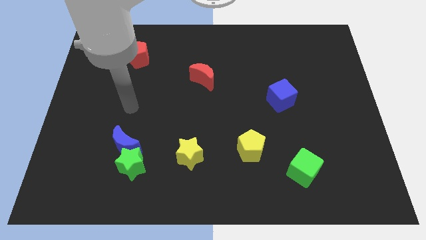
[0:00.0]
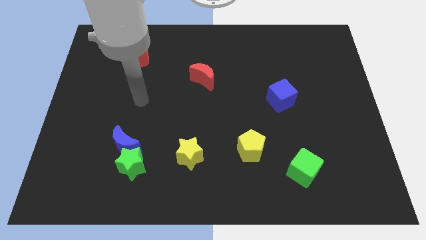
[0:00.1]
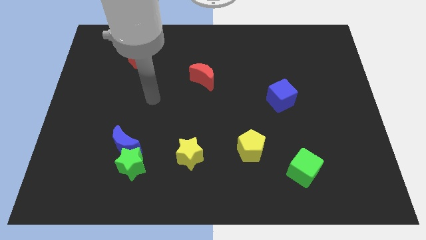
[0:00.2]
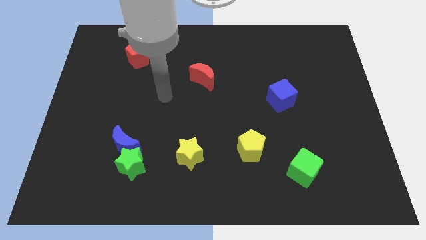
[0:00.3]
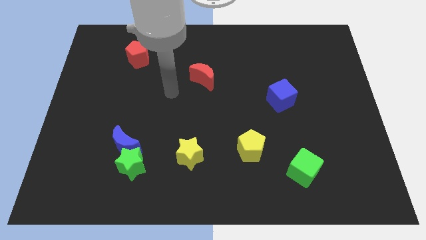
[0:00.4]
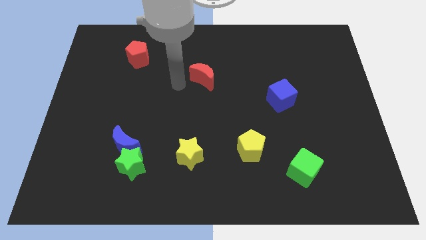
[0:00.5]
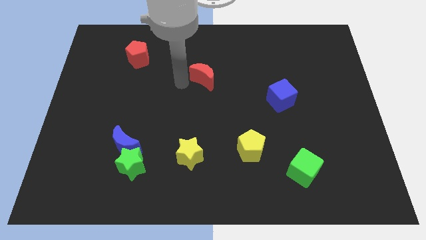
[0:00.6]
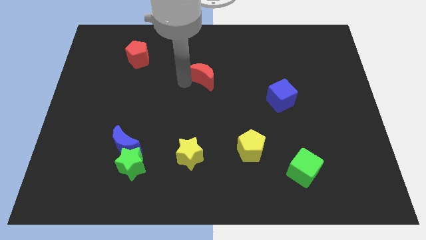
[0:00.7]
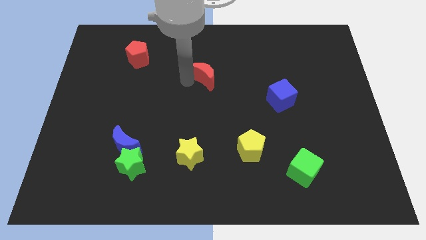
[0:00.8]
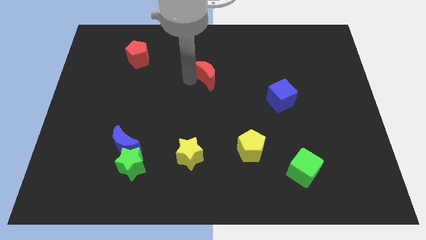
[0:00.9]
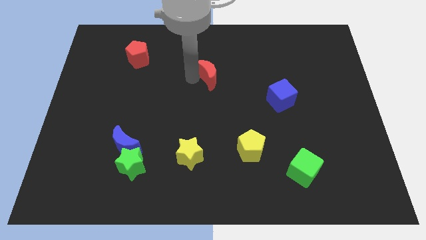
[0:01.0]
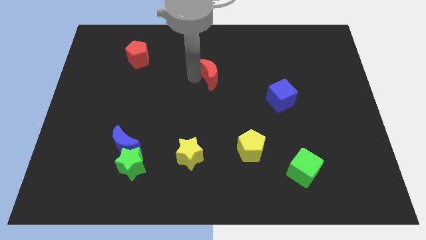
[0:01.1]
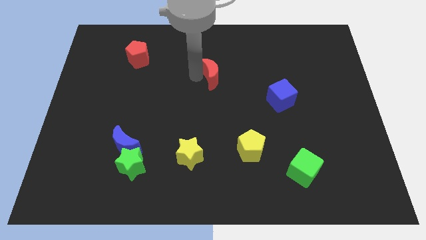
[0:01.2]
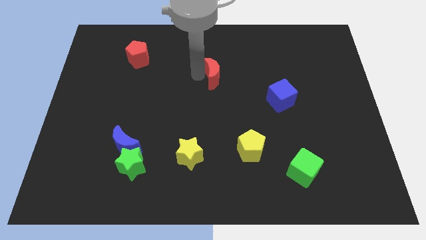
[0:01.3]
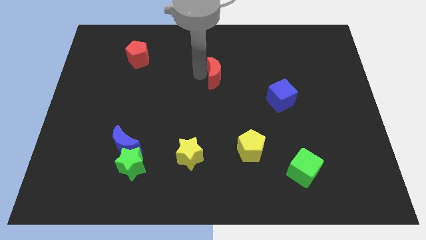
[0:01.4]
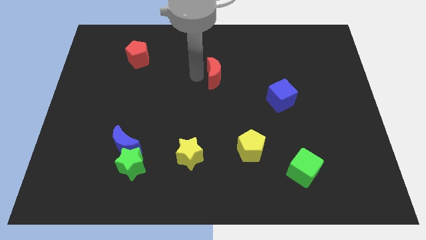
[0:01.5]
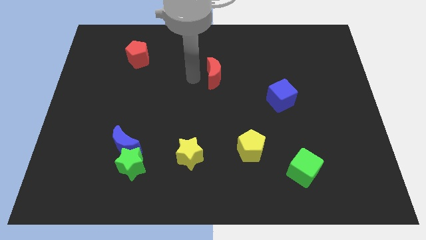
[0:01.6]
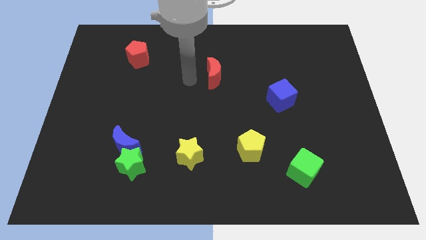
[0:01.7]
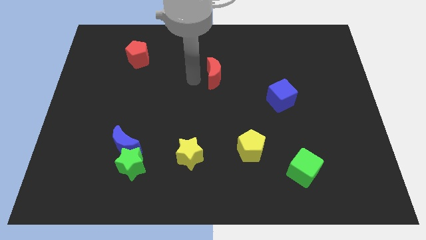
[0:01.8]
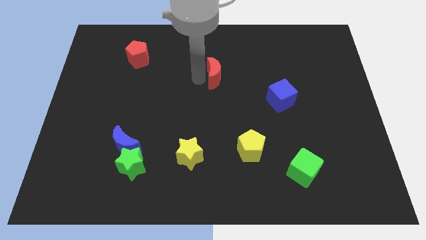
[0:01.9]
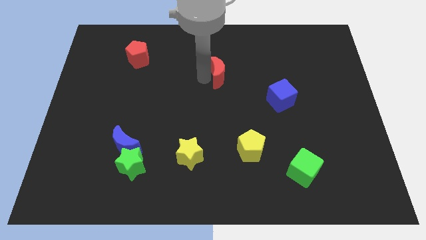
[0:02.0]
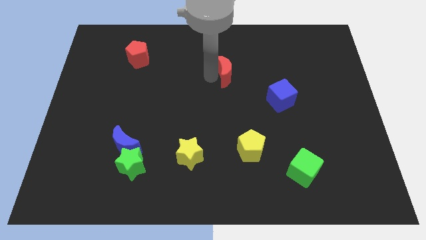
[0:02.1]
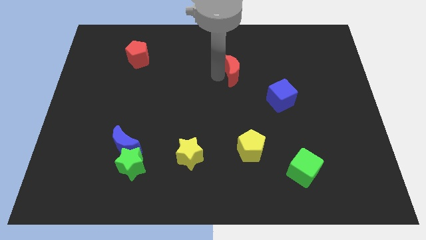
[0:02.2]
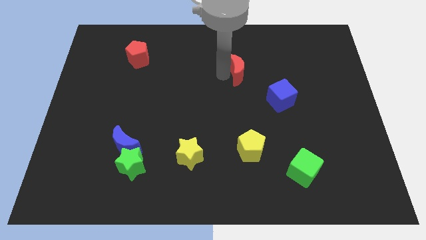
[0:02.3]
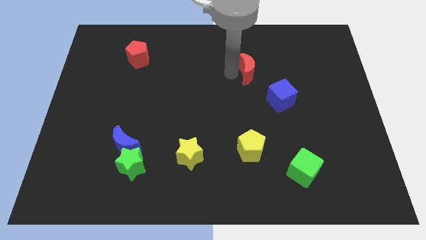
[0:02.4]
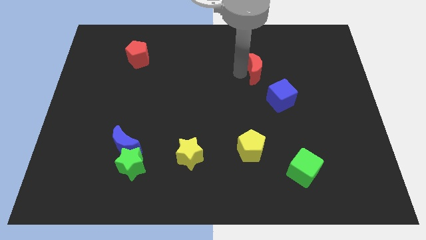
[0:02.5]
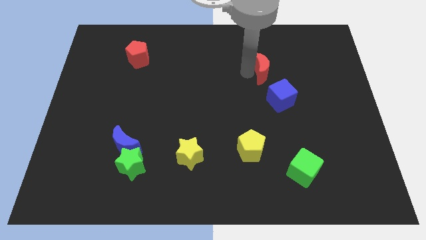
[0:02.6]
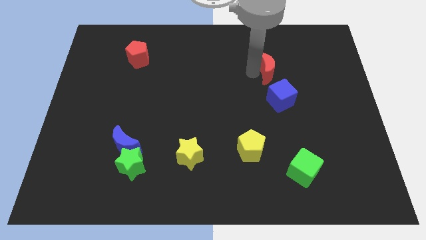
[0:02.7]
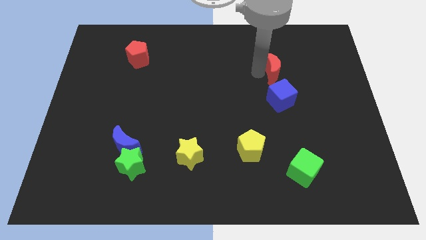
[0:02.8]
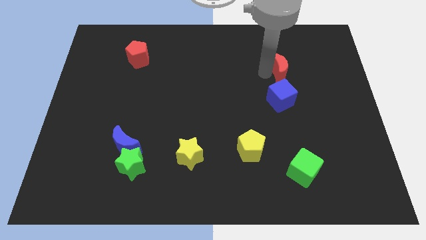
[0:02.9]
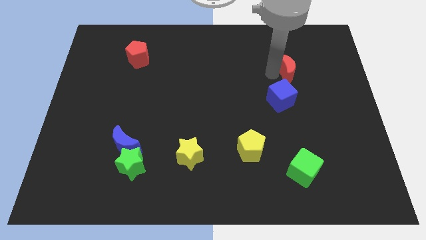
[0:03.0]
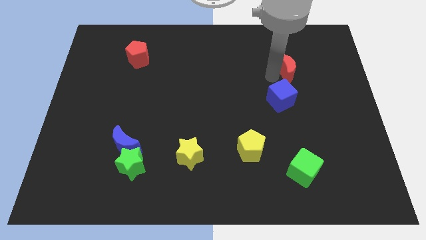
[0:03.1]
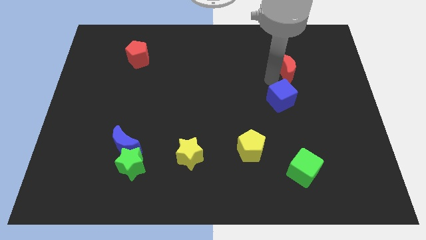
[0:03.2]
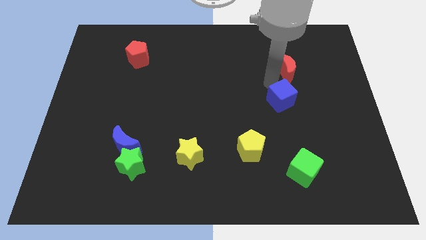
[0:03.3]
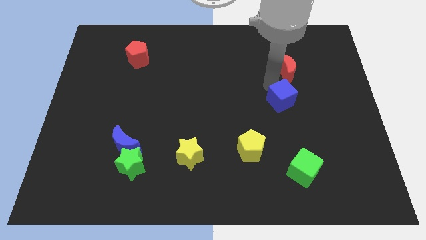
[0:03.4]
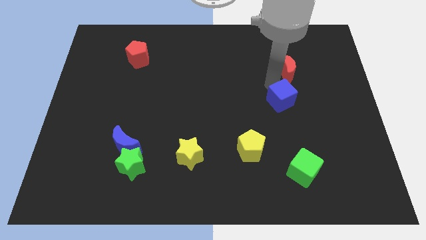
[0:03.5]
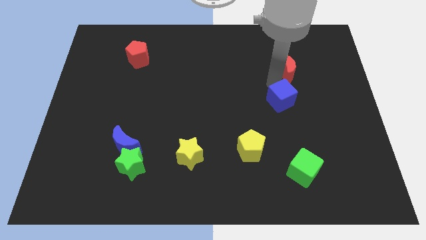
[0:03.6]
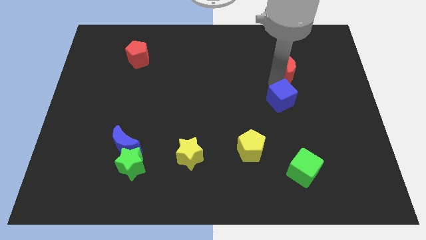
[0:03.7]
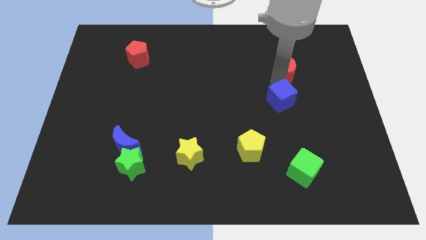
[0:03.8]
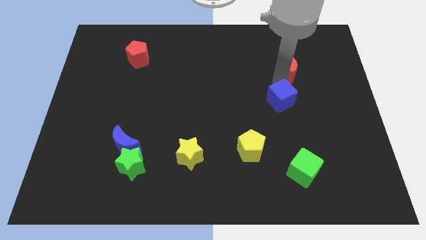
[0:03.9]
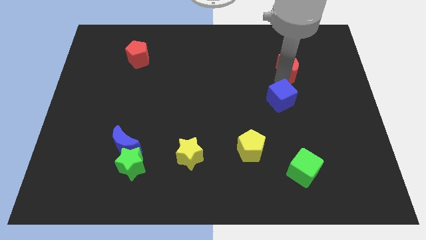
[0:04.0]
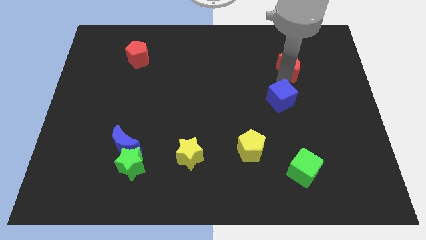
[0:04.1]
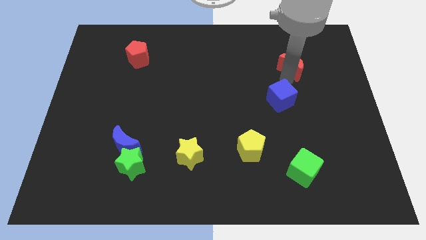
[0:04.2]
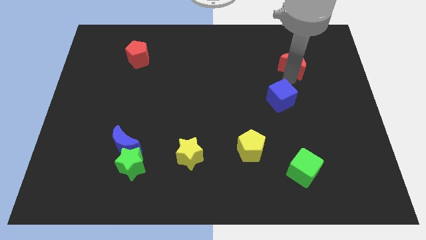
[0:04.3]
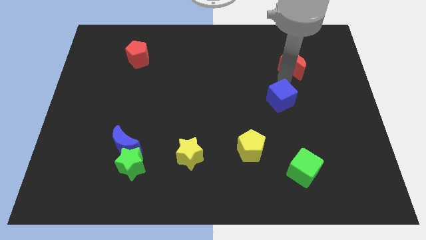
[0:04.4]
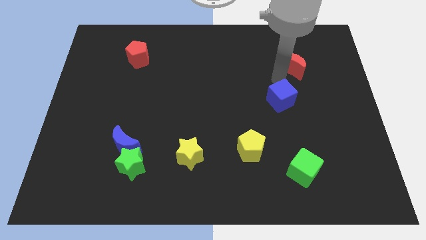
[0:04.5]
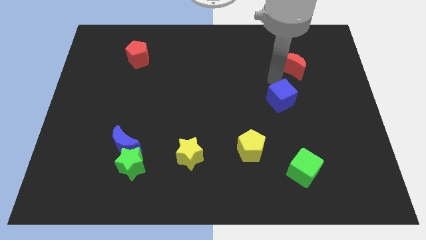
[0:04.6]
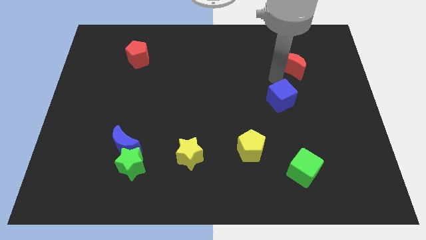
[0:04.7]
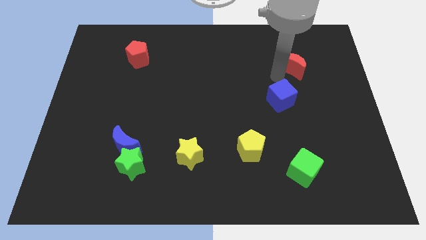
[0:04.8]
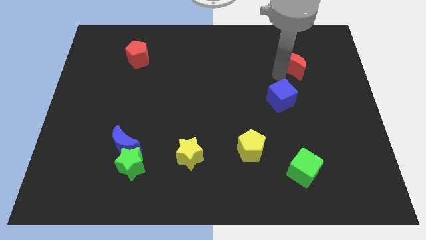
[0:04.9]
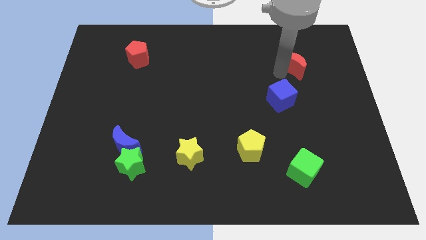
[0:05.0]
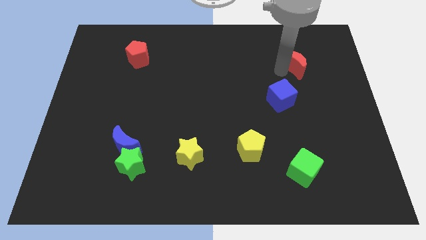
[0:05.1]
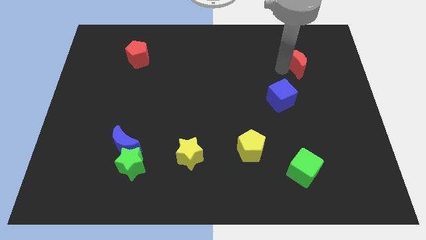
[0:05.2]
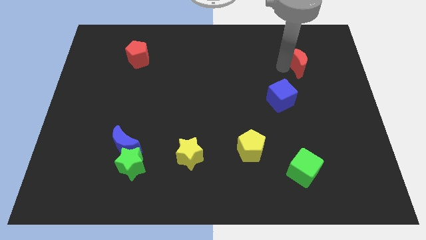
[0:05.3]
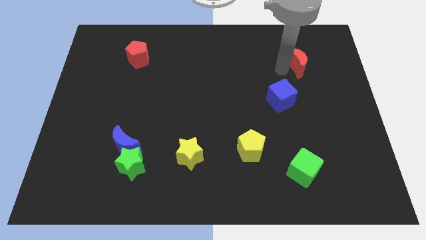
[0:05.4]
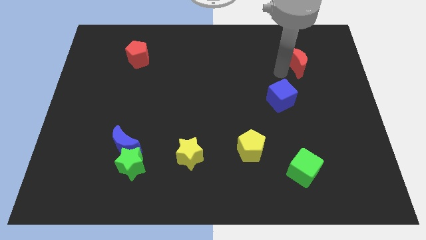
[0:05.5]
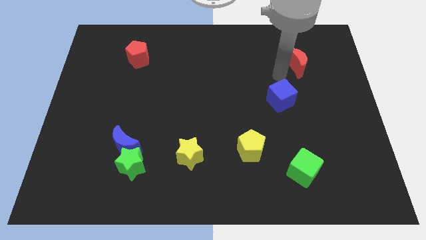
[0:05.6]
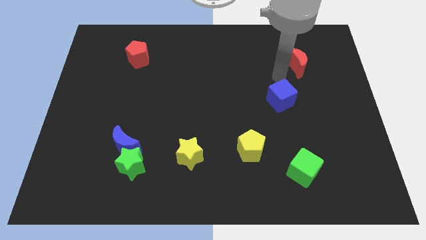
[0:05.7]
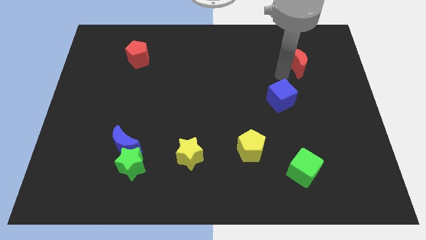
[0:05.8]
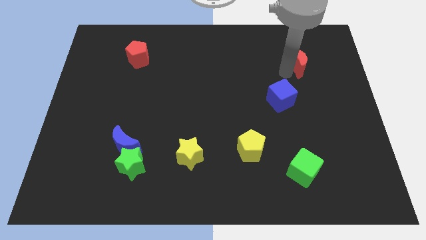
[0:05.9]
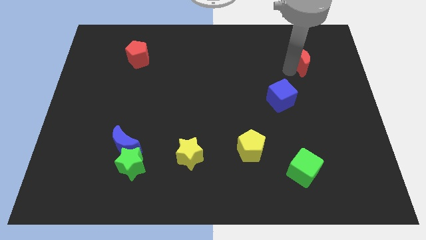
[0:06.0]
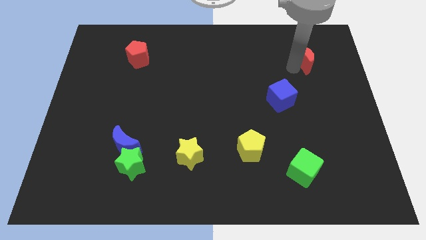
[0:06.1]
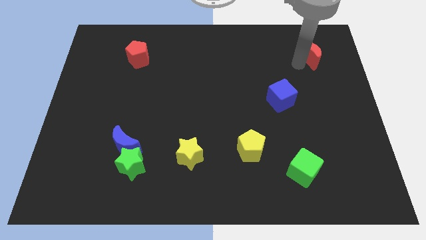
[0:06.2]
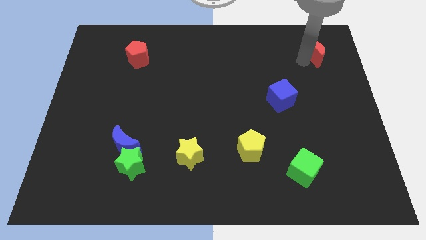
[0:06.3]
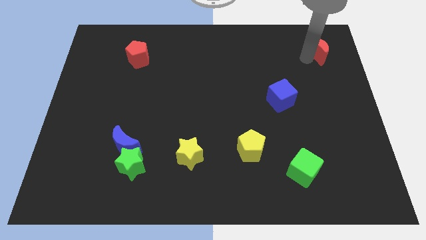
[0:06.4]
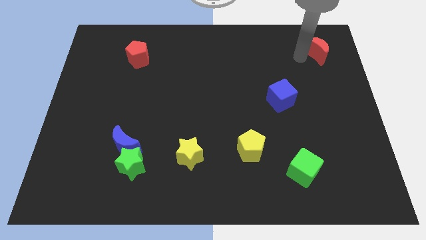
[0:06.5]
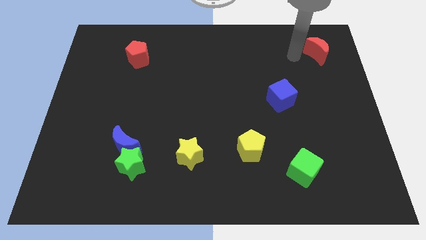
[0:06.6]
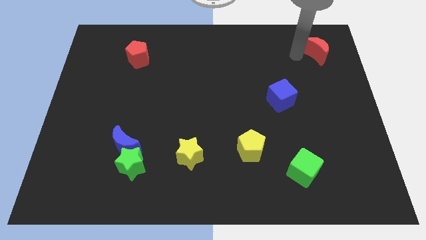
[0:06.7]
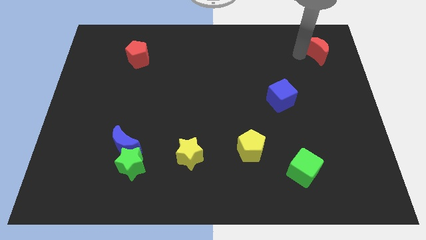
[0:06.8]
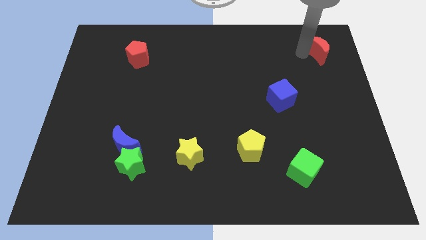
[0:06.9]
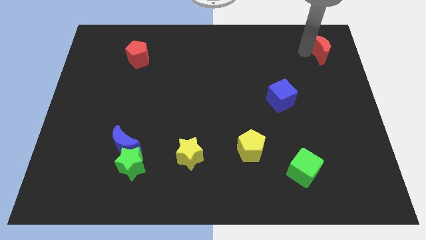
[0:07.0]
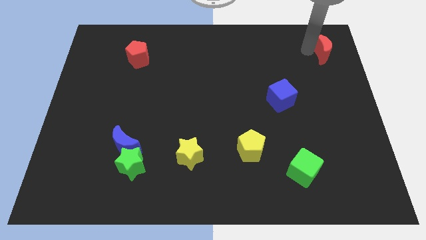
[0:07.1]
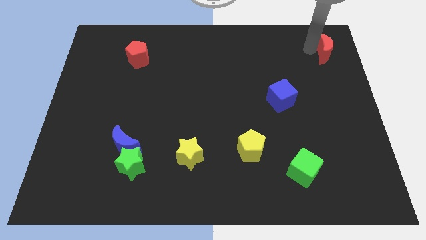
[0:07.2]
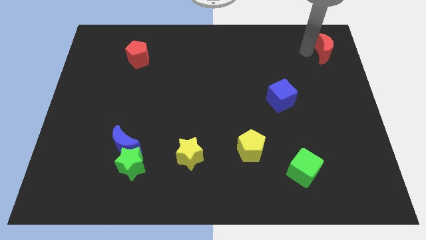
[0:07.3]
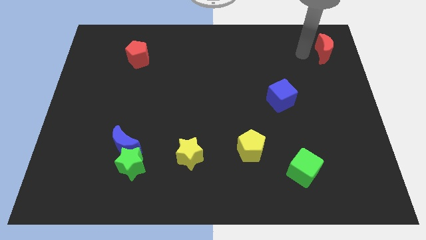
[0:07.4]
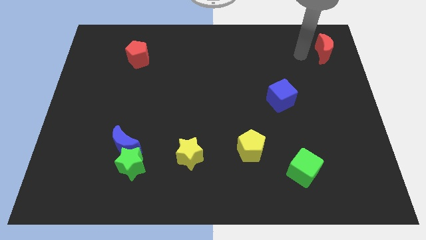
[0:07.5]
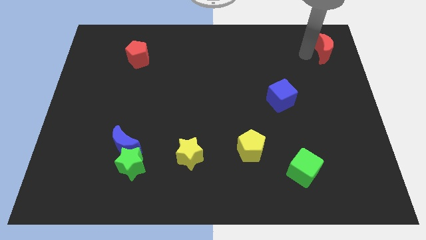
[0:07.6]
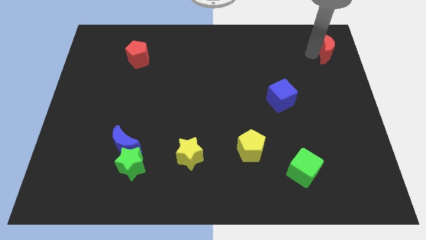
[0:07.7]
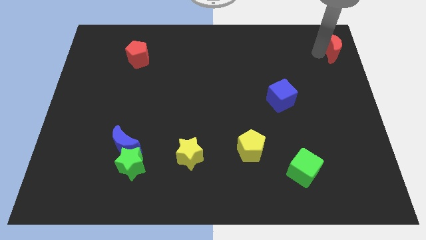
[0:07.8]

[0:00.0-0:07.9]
put the red moon to the top right corner
